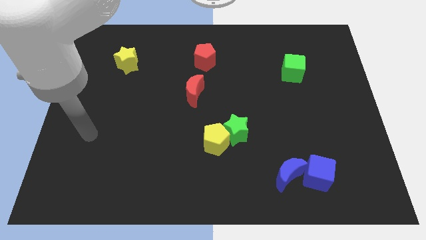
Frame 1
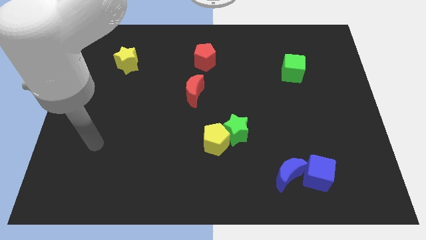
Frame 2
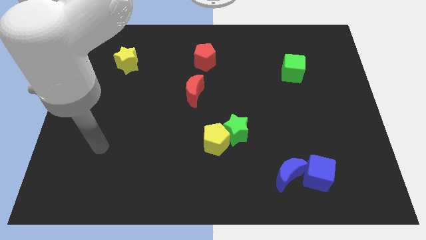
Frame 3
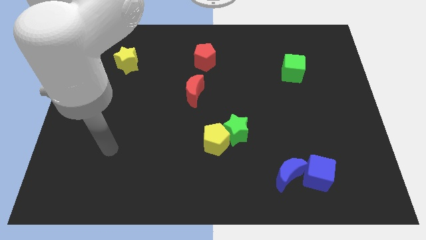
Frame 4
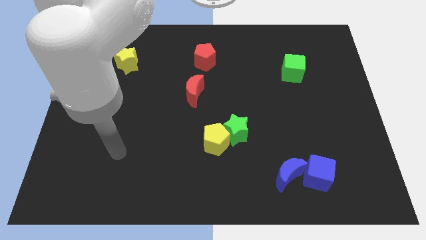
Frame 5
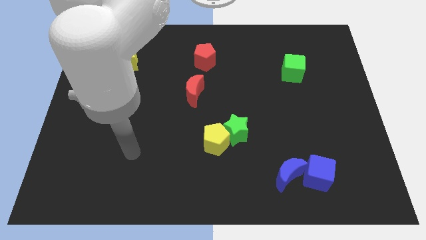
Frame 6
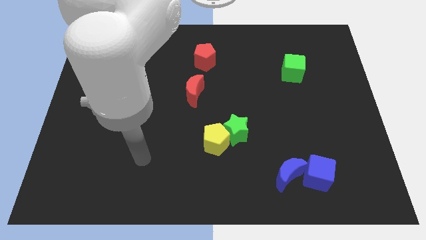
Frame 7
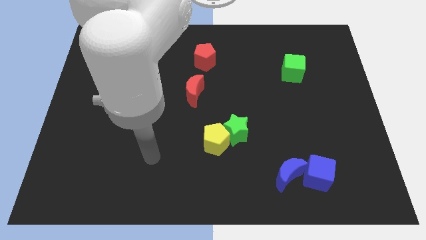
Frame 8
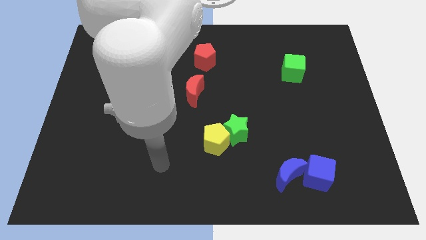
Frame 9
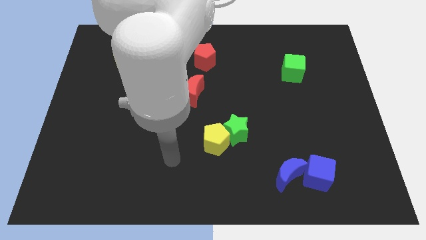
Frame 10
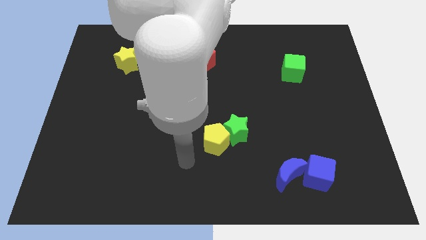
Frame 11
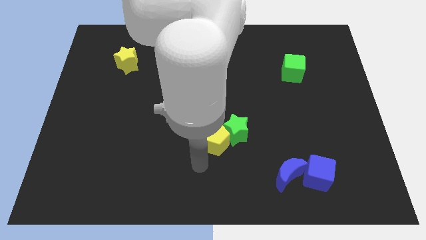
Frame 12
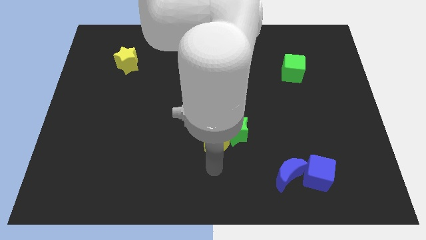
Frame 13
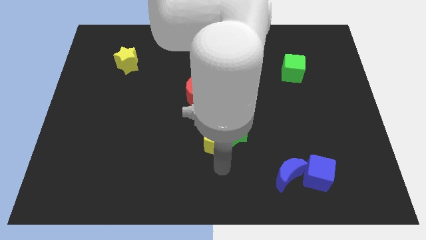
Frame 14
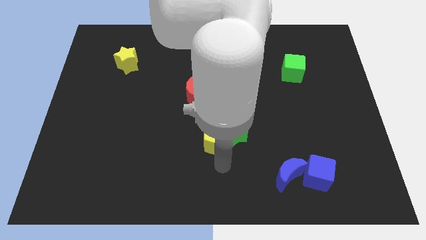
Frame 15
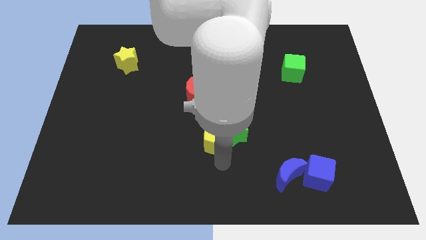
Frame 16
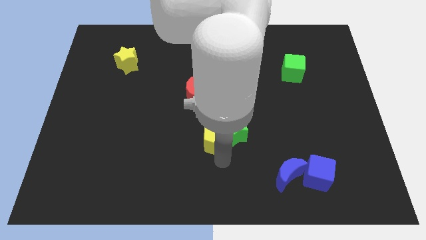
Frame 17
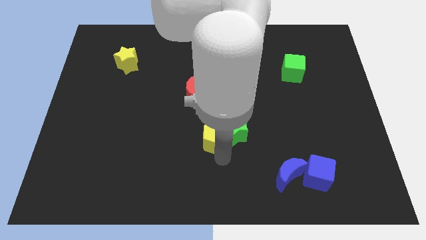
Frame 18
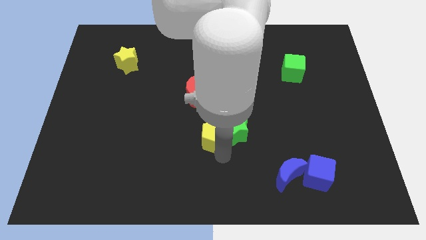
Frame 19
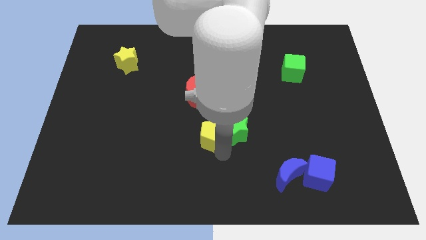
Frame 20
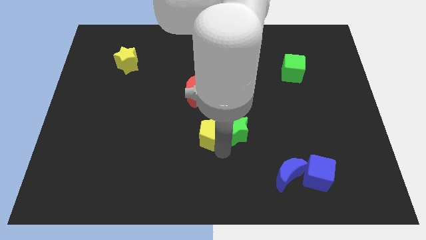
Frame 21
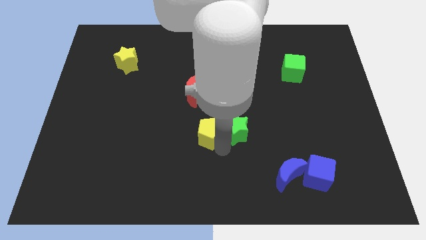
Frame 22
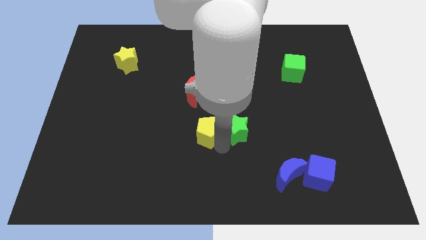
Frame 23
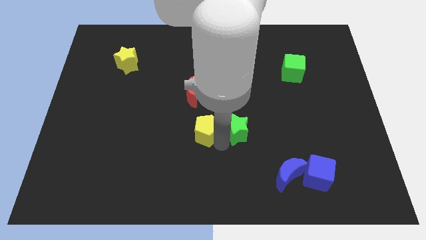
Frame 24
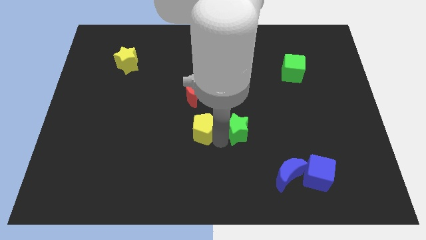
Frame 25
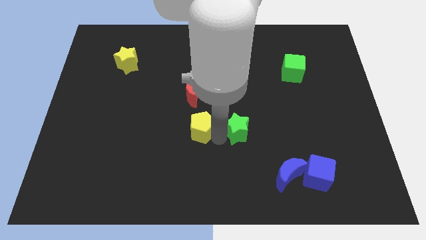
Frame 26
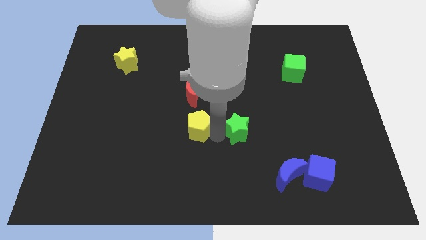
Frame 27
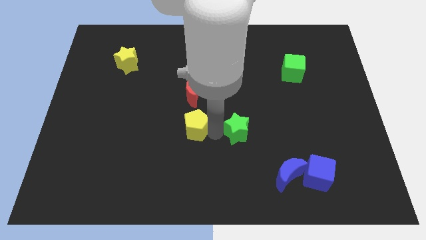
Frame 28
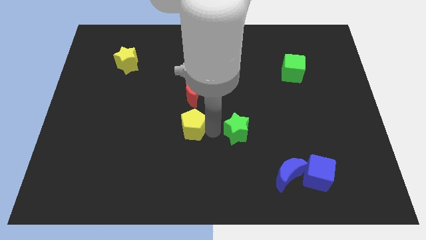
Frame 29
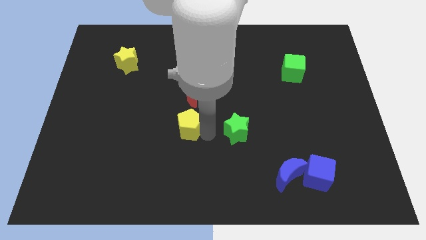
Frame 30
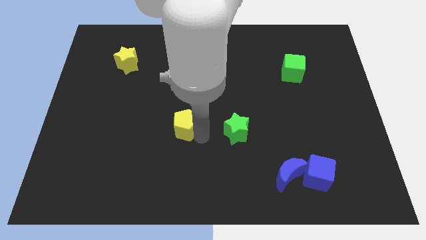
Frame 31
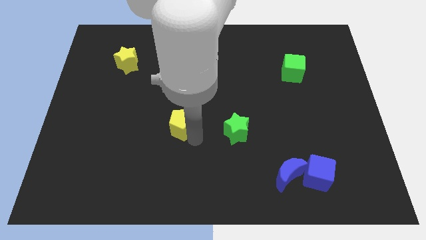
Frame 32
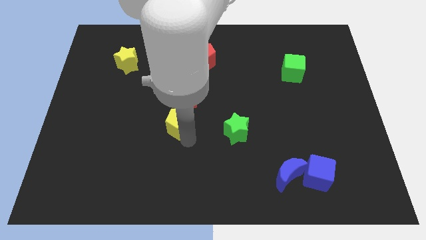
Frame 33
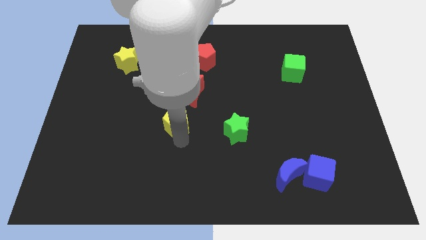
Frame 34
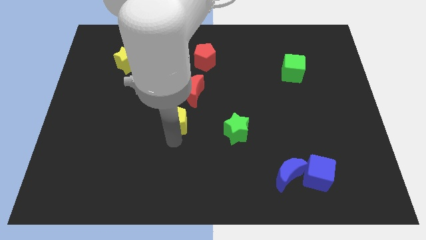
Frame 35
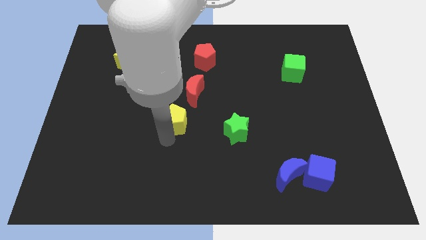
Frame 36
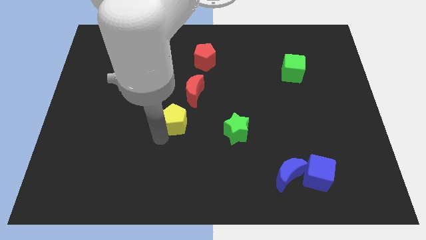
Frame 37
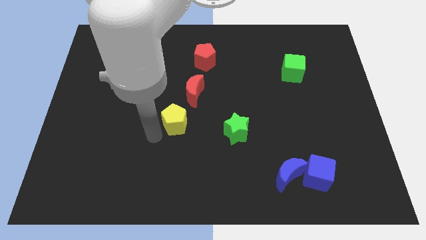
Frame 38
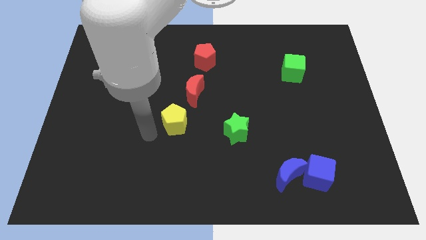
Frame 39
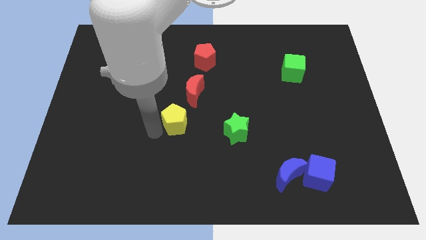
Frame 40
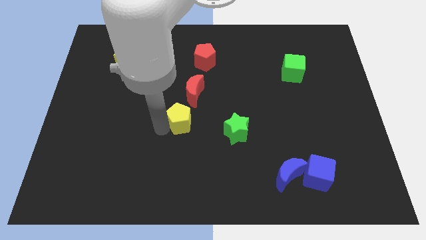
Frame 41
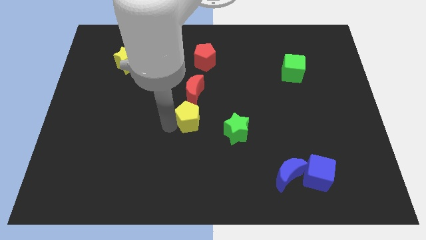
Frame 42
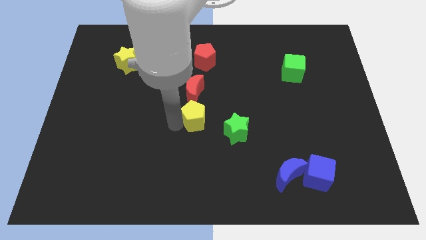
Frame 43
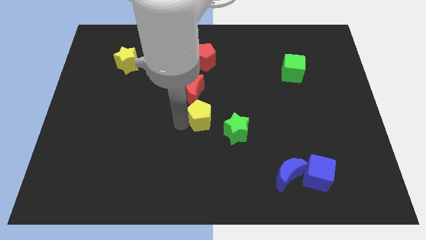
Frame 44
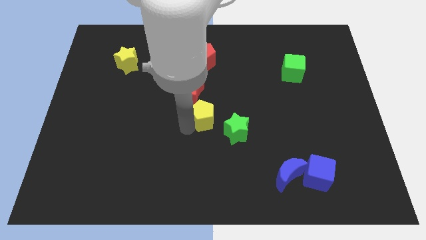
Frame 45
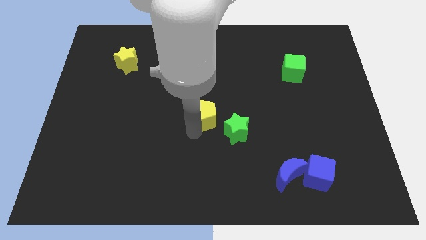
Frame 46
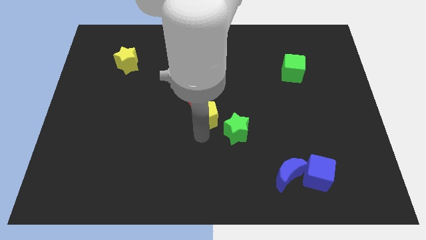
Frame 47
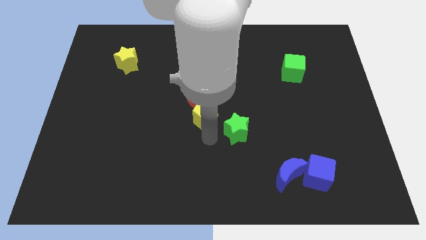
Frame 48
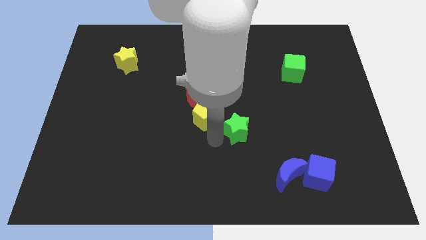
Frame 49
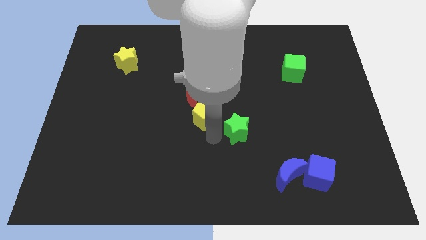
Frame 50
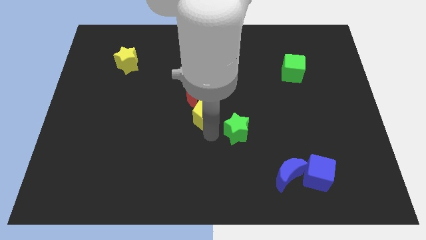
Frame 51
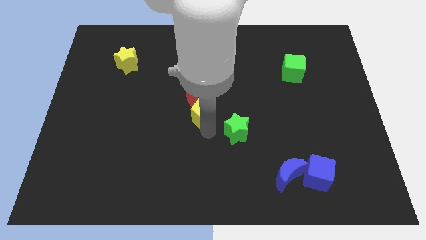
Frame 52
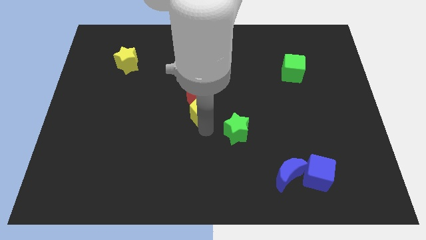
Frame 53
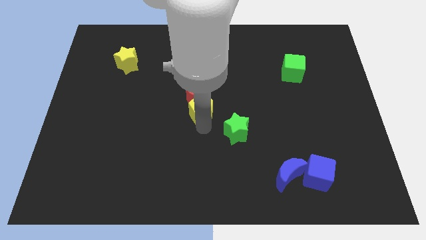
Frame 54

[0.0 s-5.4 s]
move the yellow pentagon to the red moon

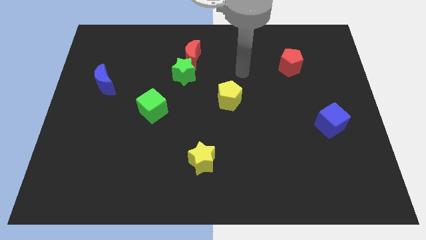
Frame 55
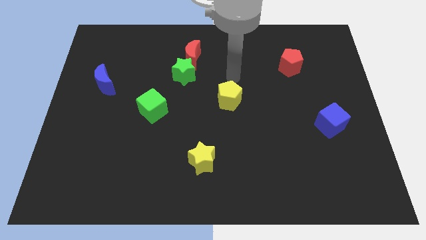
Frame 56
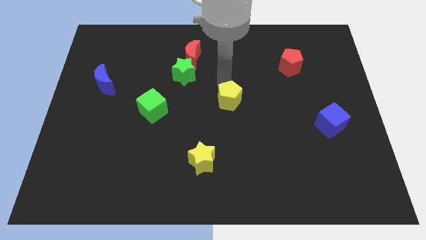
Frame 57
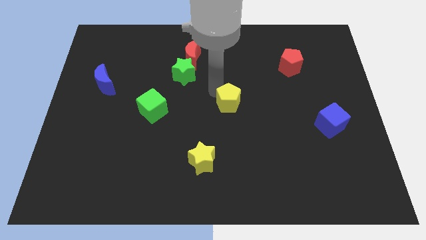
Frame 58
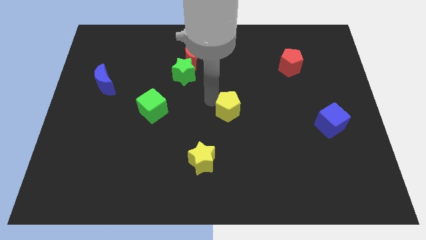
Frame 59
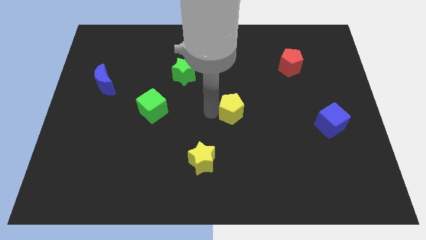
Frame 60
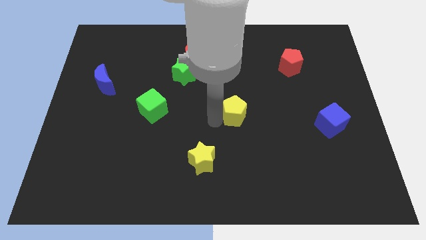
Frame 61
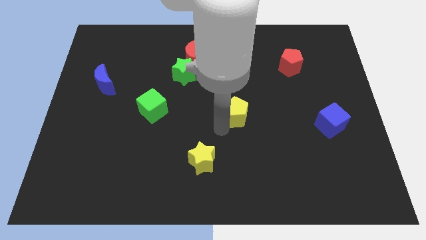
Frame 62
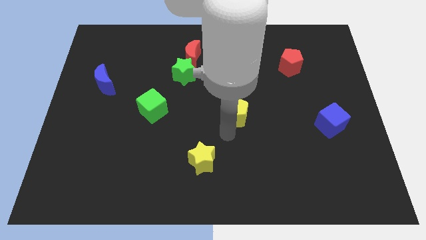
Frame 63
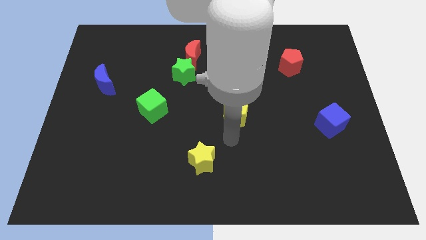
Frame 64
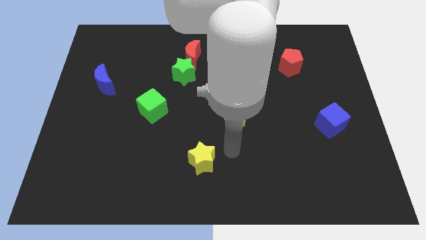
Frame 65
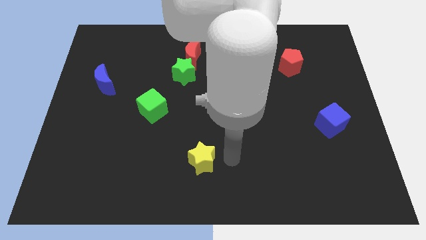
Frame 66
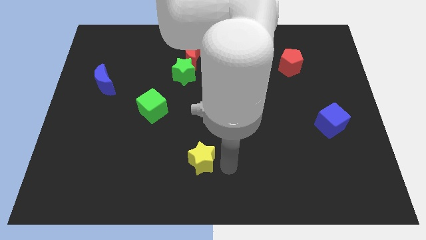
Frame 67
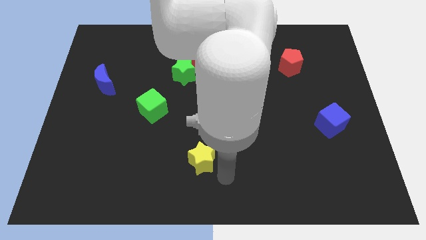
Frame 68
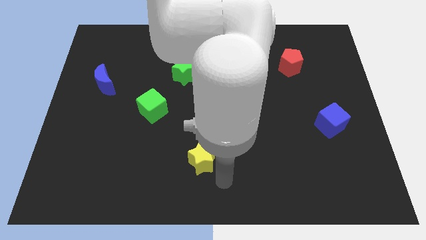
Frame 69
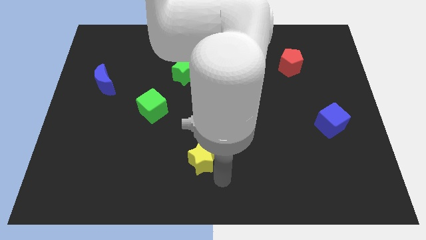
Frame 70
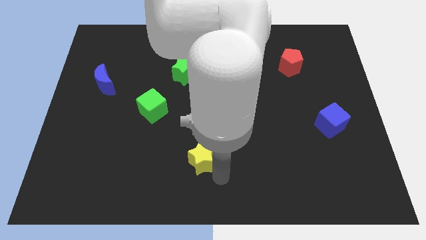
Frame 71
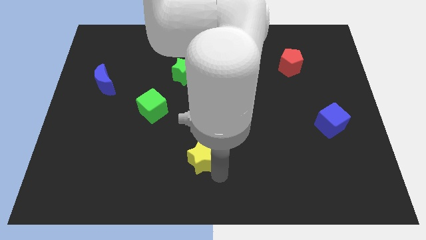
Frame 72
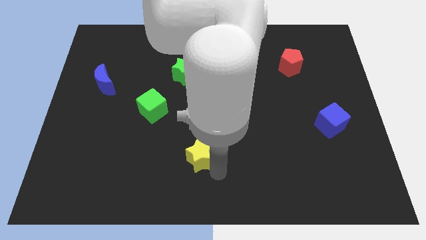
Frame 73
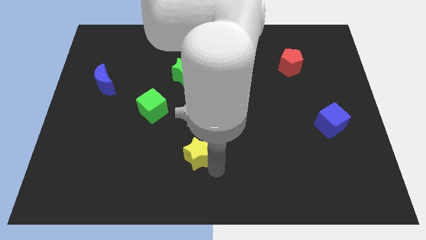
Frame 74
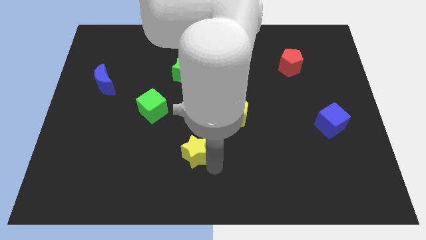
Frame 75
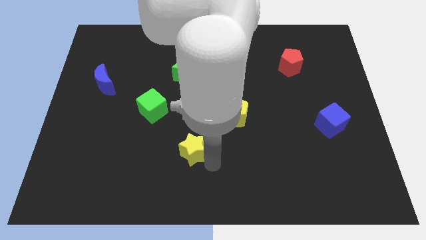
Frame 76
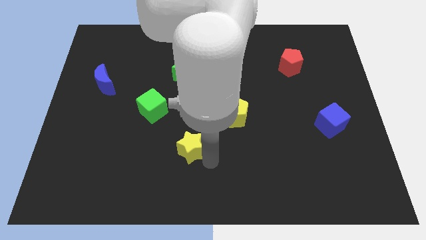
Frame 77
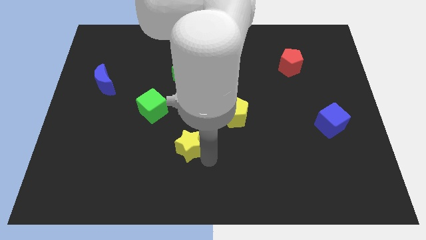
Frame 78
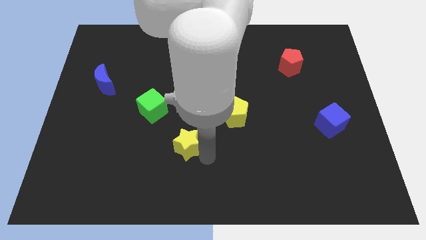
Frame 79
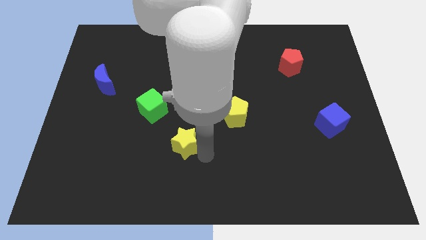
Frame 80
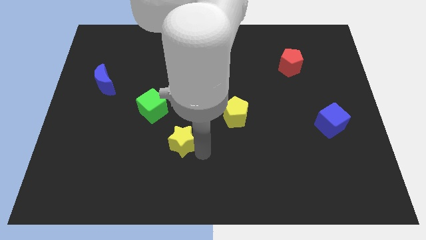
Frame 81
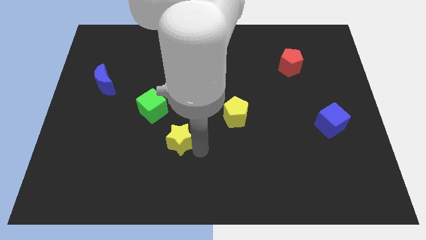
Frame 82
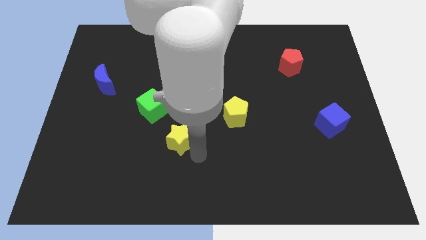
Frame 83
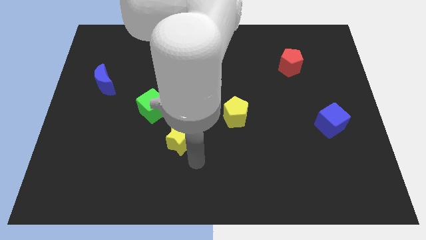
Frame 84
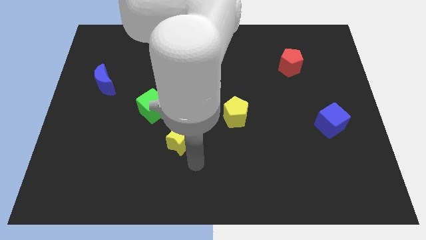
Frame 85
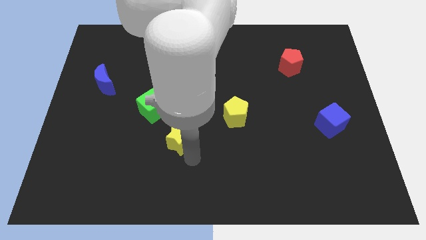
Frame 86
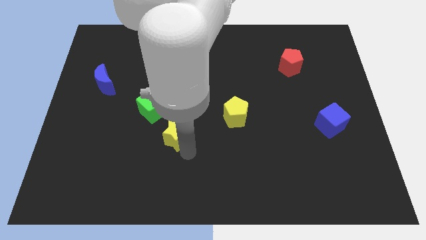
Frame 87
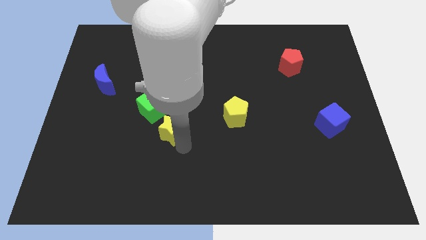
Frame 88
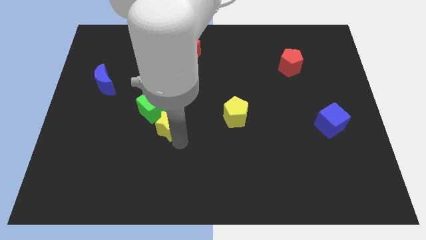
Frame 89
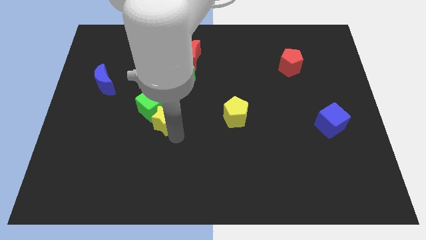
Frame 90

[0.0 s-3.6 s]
move the yellow star close to the green cube
